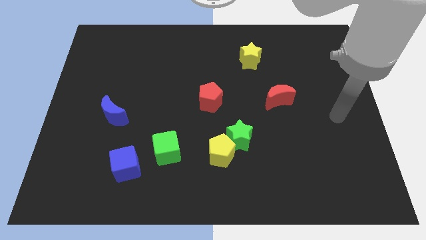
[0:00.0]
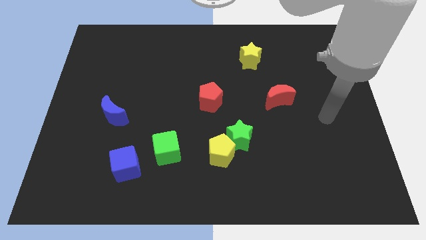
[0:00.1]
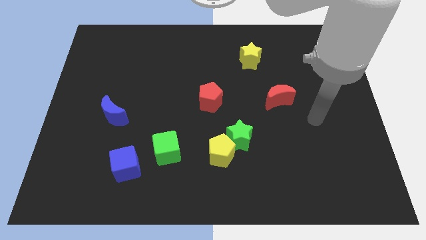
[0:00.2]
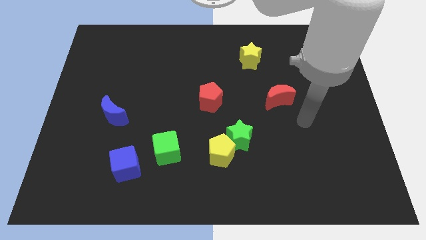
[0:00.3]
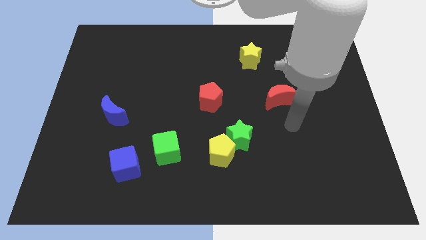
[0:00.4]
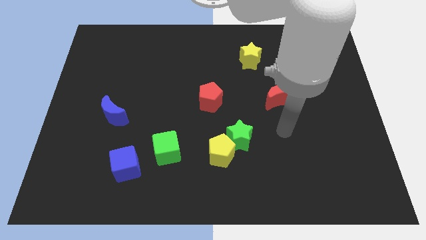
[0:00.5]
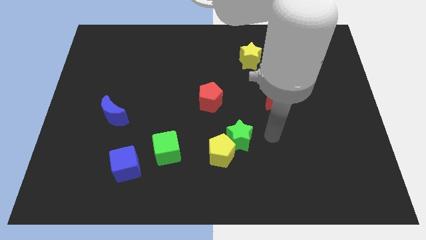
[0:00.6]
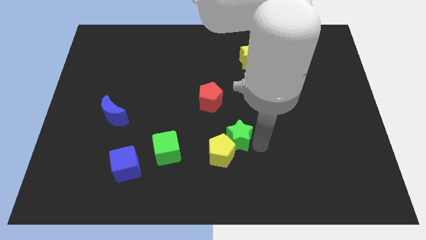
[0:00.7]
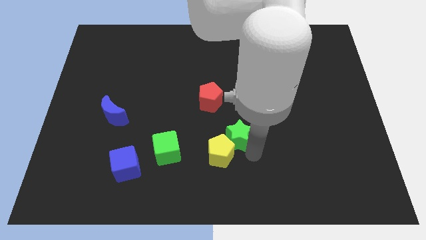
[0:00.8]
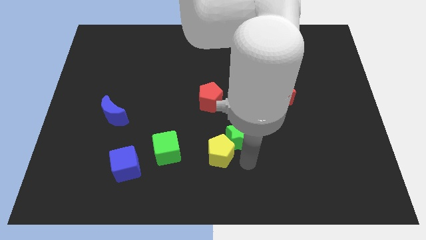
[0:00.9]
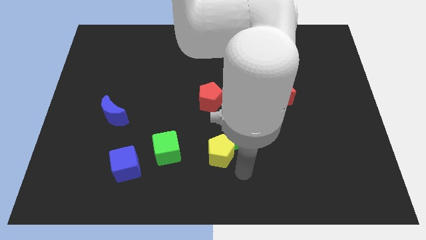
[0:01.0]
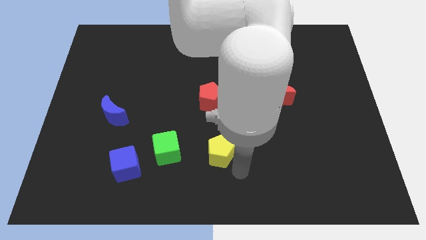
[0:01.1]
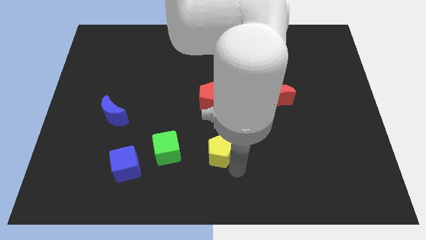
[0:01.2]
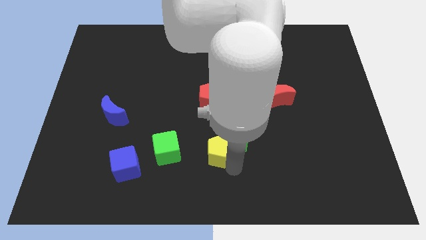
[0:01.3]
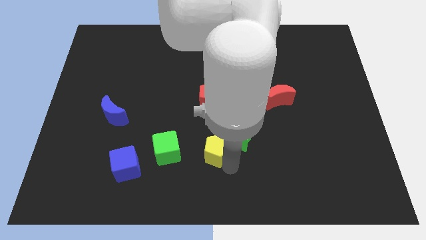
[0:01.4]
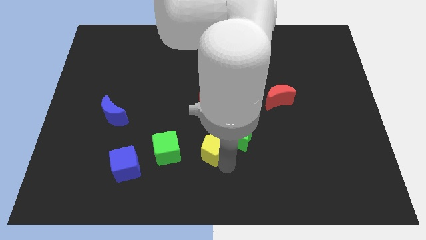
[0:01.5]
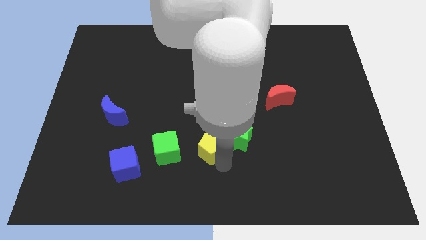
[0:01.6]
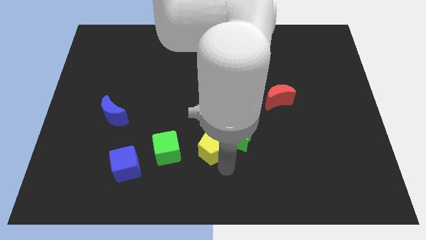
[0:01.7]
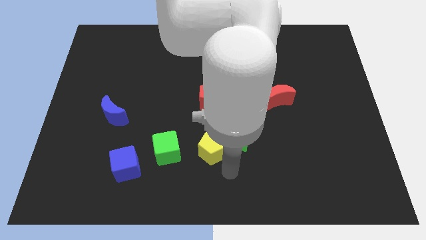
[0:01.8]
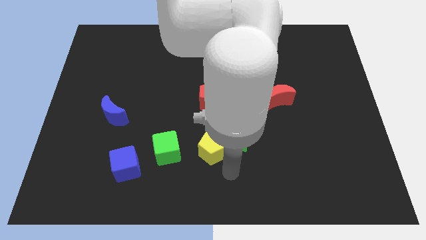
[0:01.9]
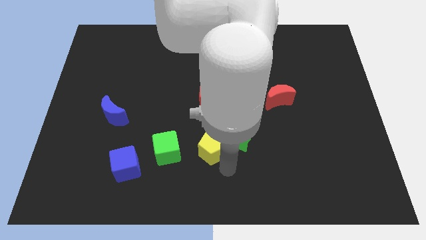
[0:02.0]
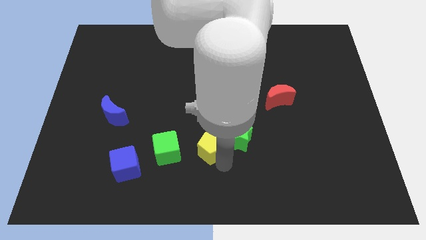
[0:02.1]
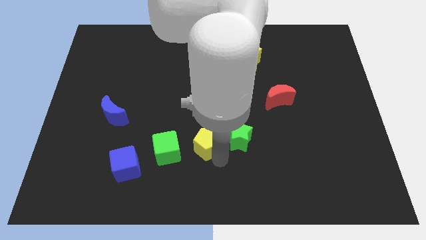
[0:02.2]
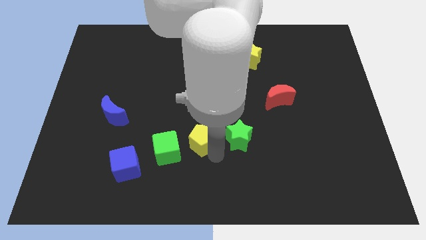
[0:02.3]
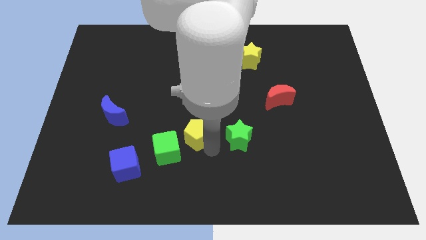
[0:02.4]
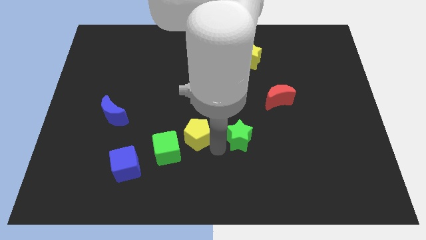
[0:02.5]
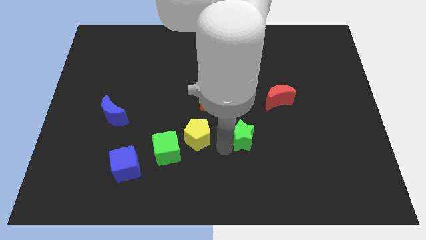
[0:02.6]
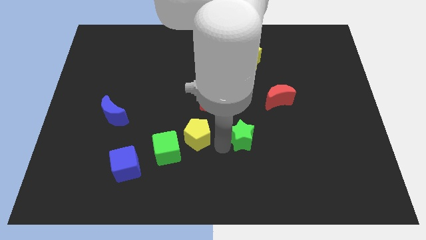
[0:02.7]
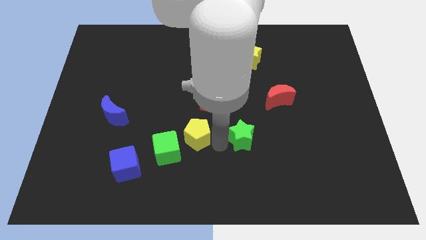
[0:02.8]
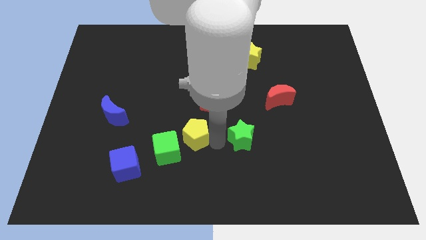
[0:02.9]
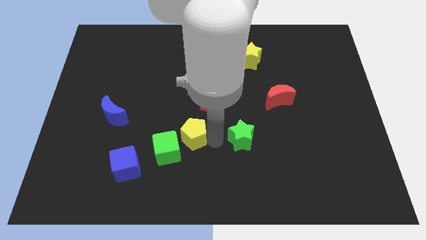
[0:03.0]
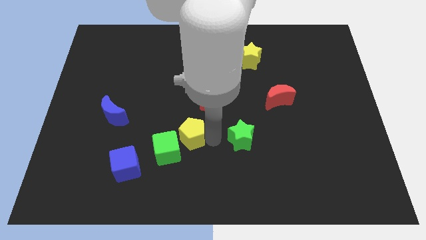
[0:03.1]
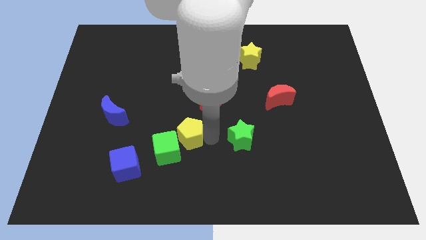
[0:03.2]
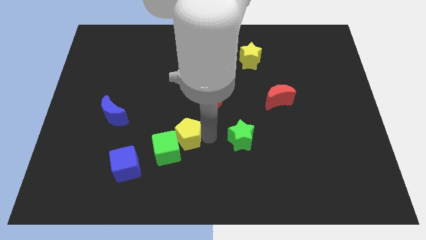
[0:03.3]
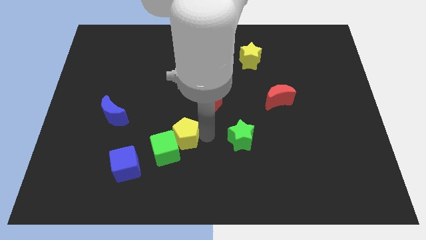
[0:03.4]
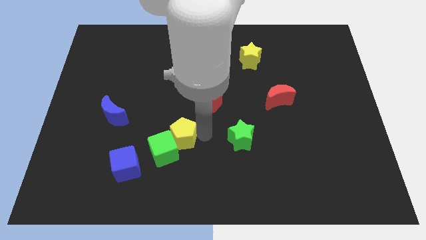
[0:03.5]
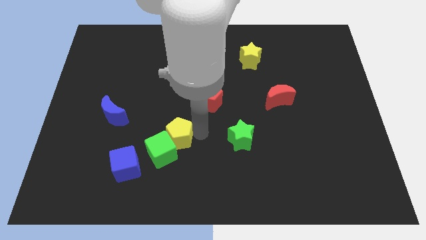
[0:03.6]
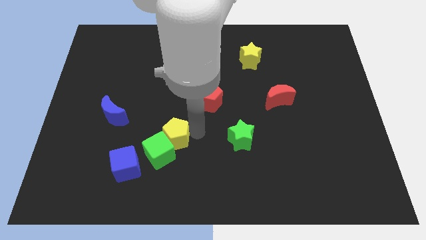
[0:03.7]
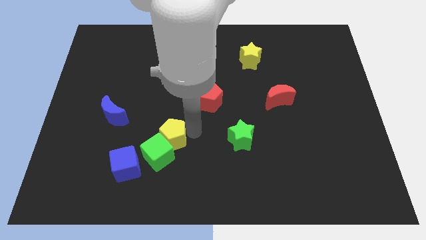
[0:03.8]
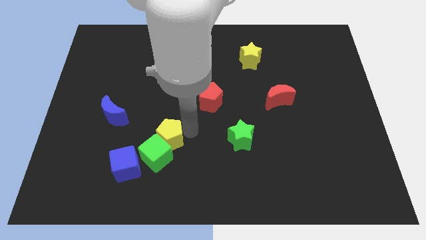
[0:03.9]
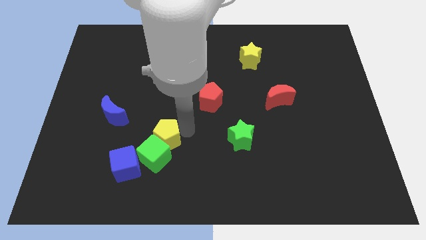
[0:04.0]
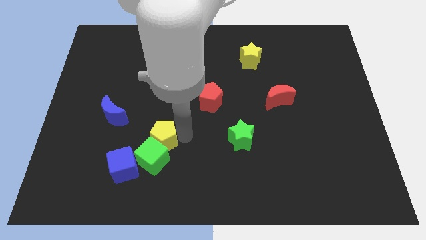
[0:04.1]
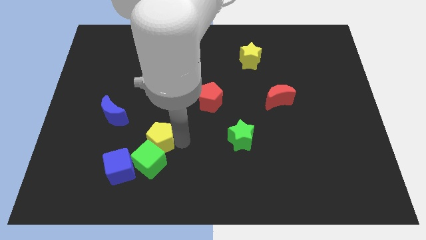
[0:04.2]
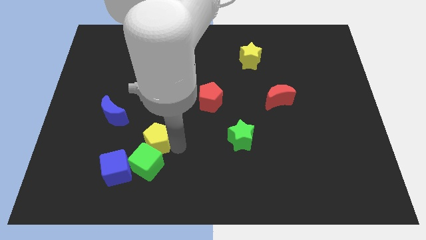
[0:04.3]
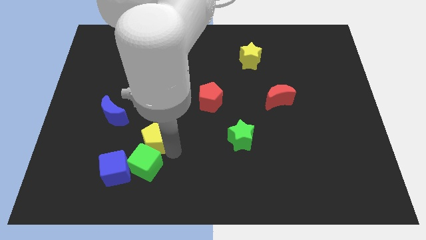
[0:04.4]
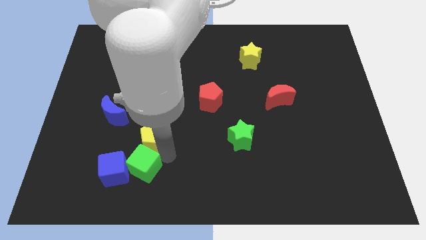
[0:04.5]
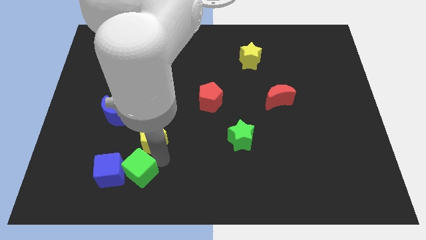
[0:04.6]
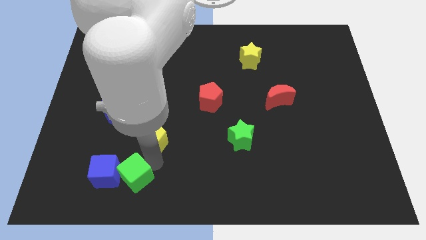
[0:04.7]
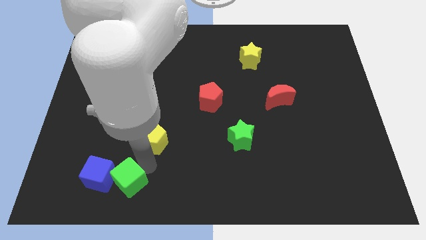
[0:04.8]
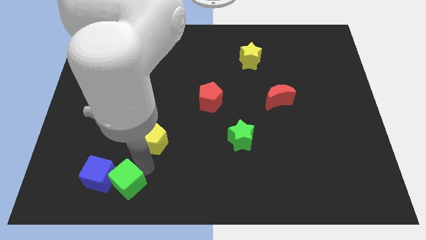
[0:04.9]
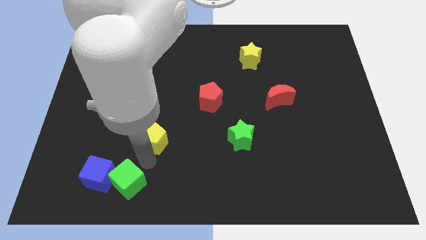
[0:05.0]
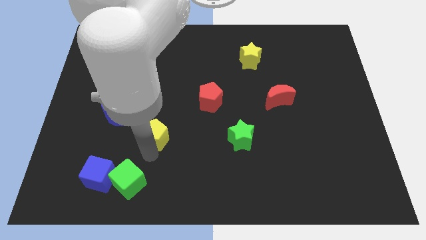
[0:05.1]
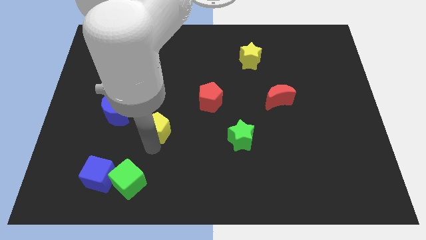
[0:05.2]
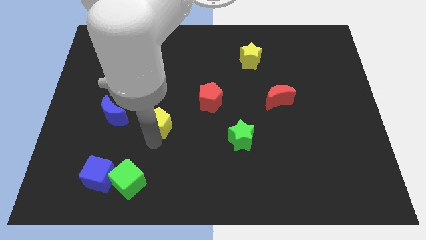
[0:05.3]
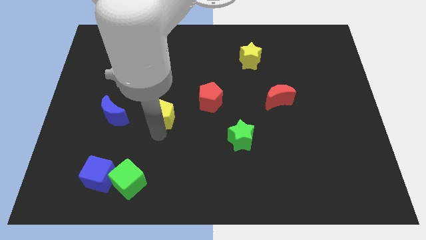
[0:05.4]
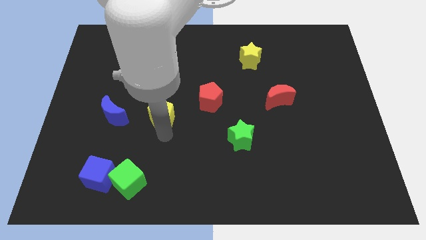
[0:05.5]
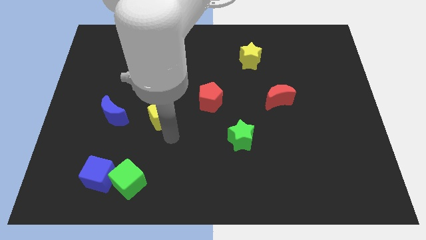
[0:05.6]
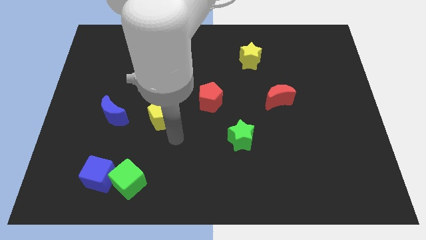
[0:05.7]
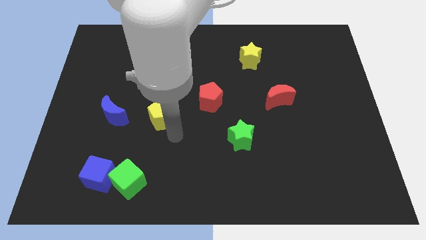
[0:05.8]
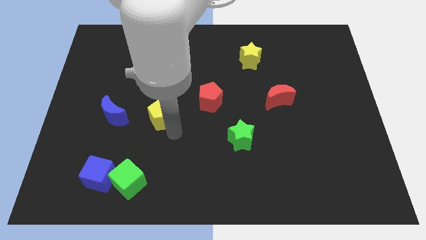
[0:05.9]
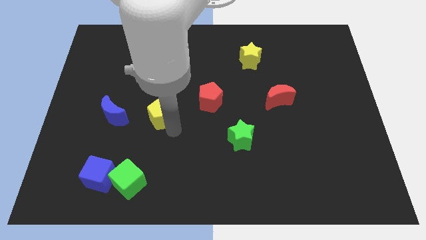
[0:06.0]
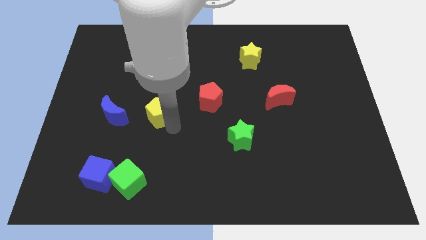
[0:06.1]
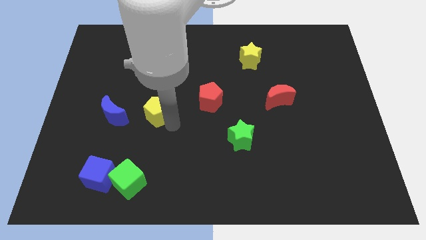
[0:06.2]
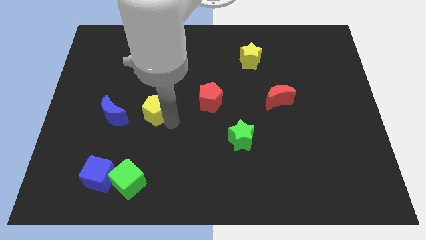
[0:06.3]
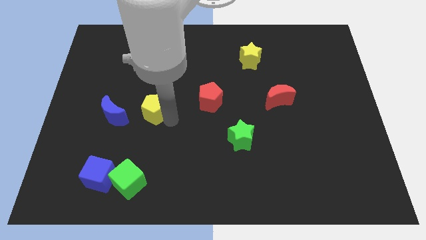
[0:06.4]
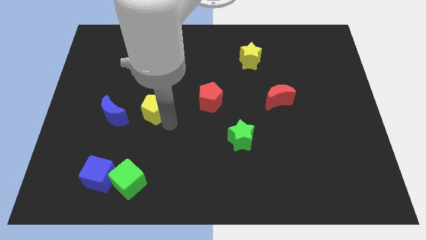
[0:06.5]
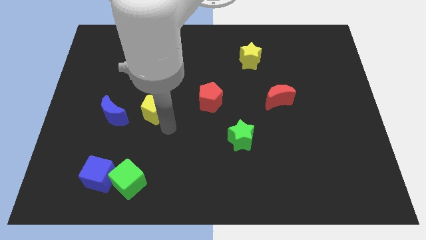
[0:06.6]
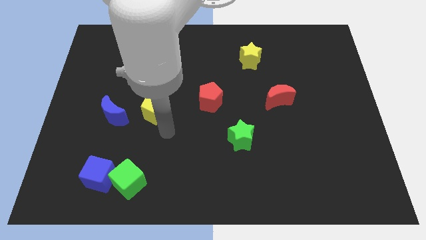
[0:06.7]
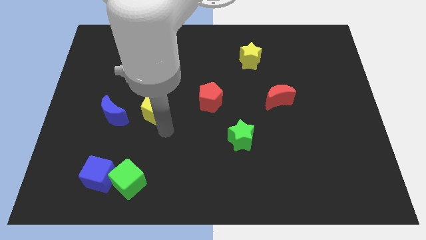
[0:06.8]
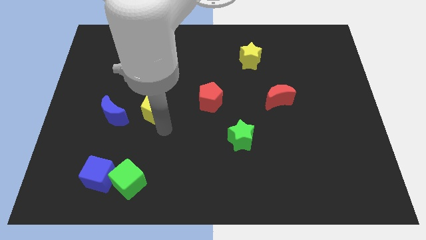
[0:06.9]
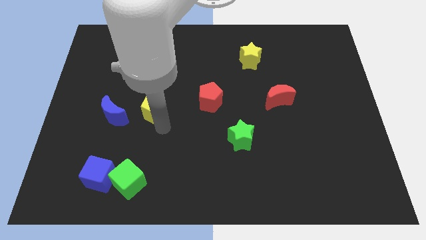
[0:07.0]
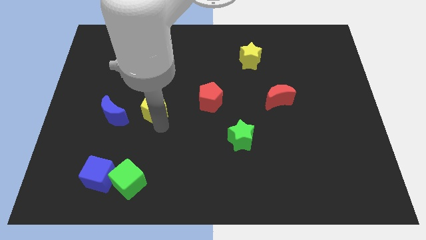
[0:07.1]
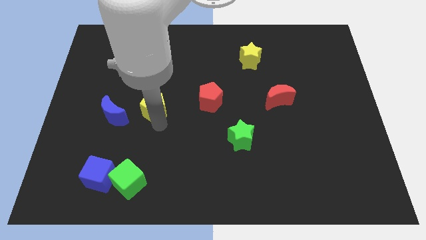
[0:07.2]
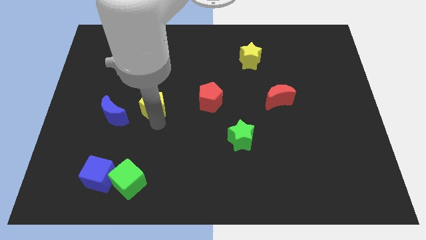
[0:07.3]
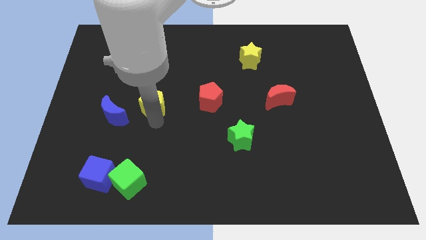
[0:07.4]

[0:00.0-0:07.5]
push the yellow pentagon diagonally upwards and to the left

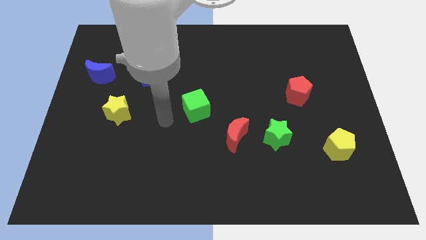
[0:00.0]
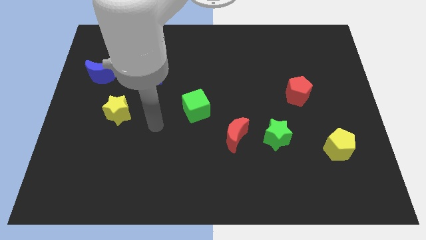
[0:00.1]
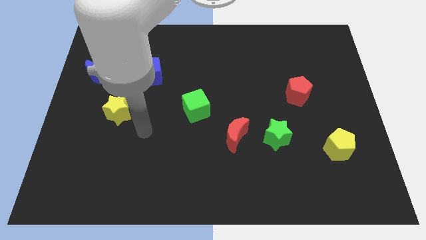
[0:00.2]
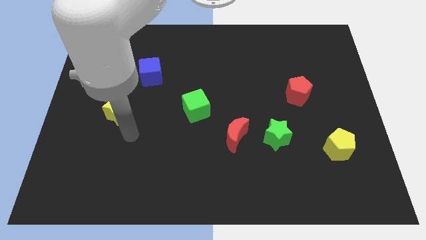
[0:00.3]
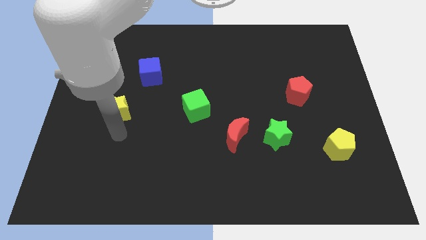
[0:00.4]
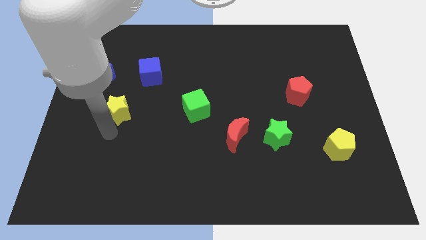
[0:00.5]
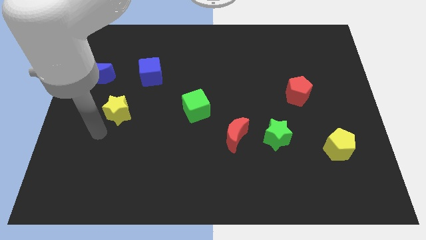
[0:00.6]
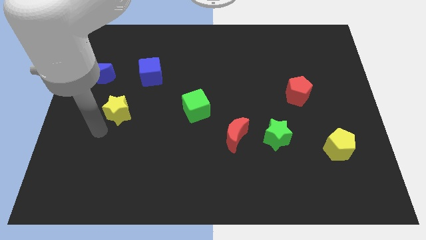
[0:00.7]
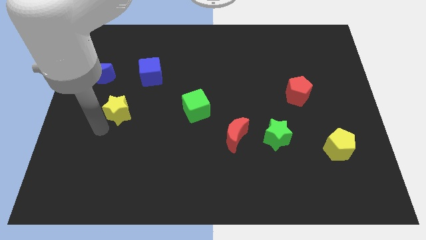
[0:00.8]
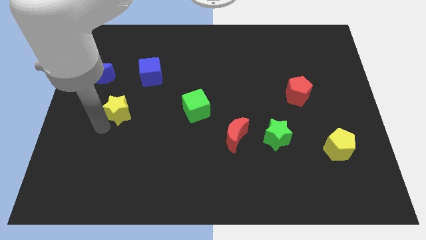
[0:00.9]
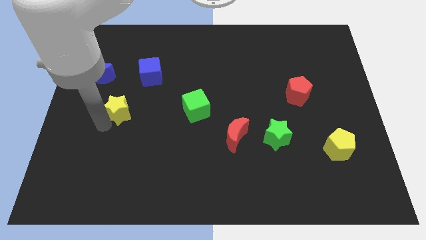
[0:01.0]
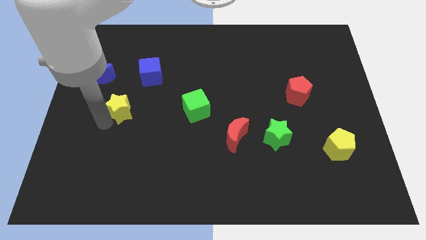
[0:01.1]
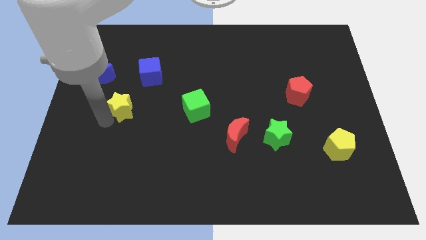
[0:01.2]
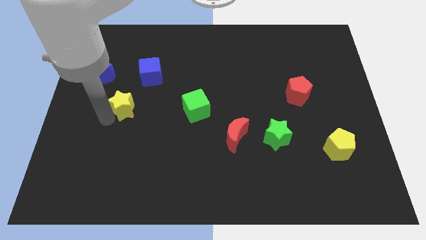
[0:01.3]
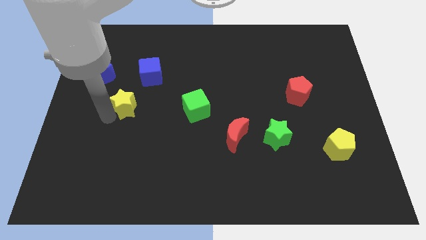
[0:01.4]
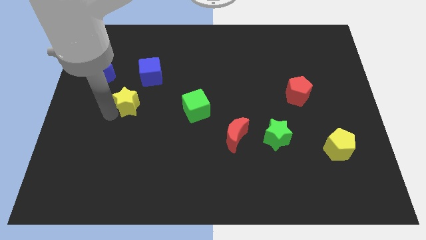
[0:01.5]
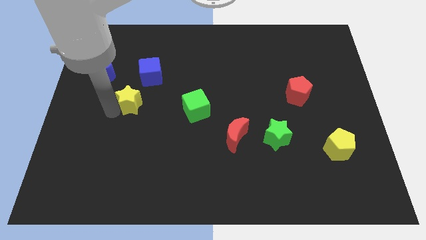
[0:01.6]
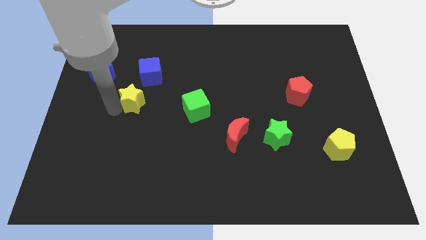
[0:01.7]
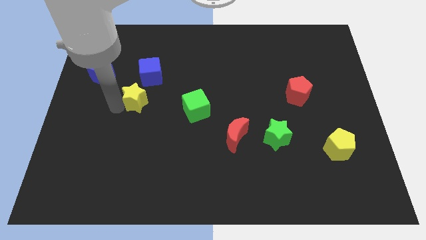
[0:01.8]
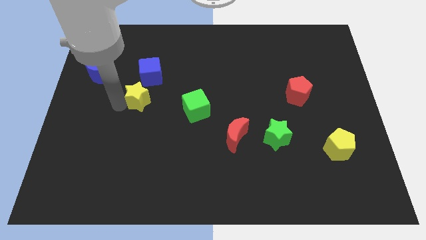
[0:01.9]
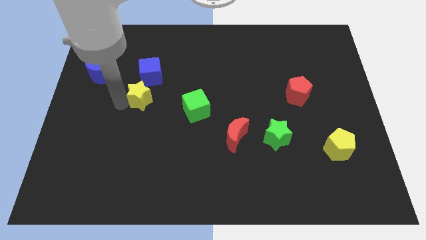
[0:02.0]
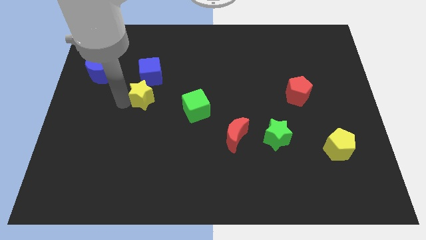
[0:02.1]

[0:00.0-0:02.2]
move the yellow star upwards and right diagonally a little
